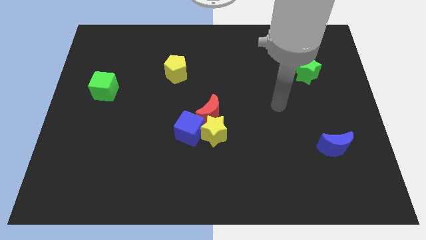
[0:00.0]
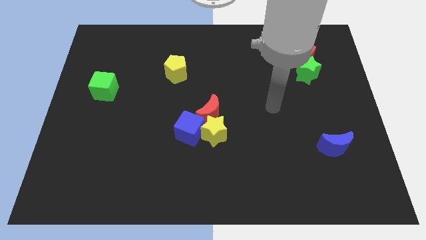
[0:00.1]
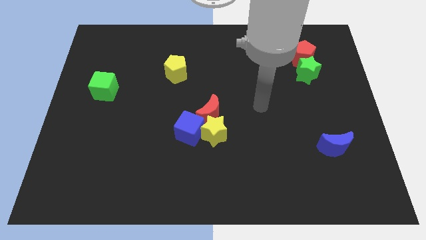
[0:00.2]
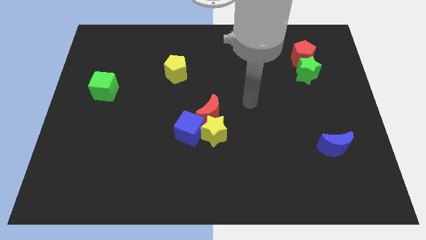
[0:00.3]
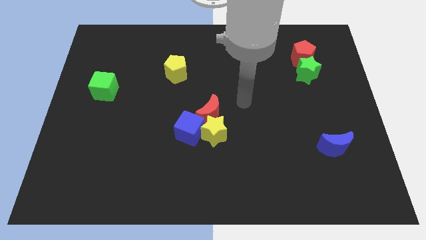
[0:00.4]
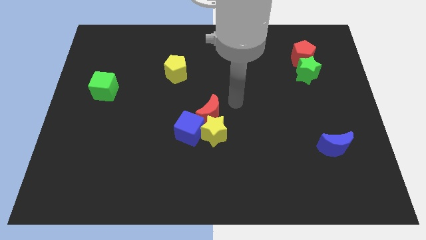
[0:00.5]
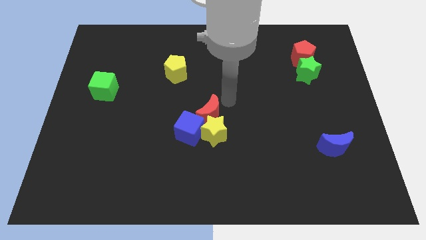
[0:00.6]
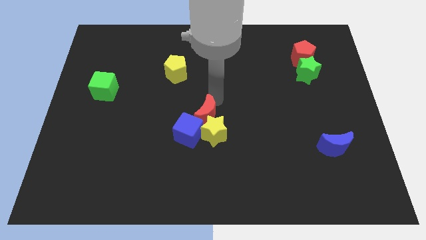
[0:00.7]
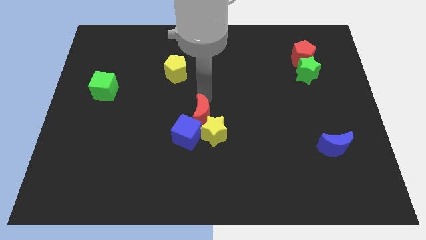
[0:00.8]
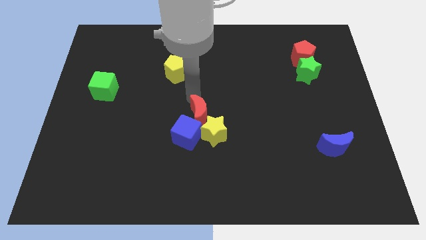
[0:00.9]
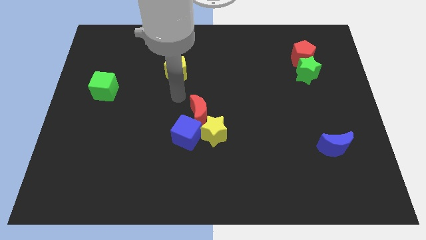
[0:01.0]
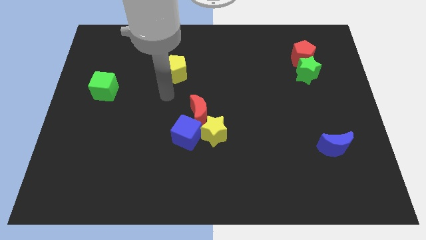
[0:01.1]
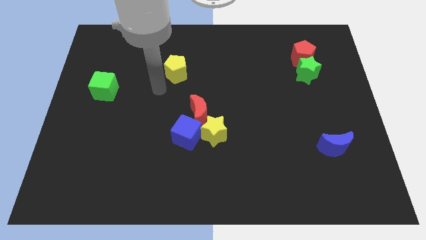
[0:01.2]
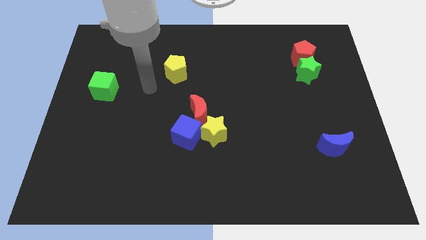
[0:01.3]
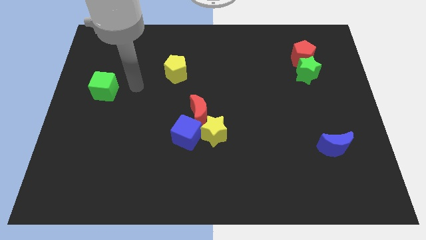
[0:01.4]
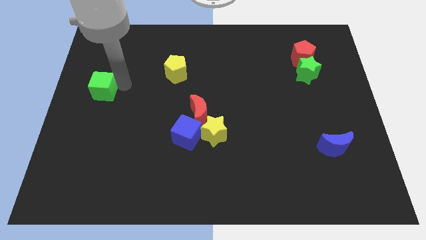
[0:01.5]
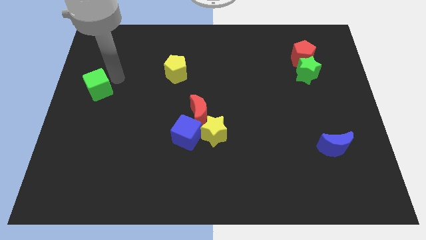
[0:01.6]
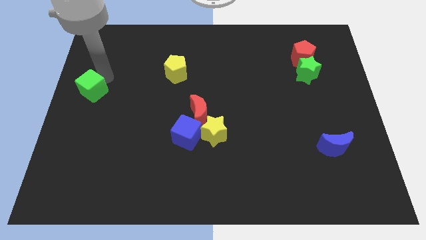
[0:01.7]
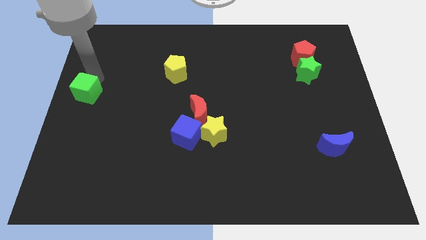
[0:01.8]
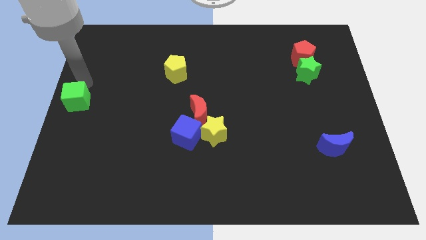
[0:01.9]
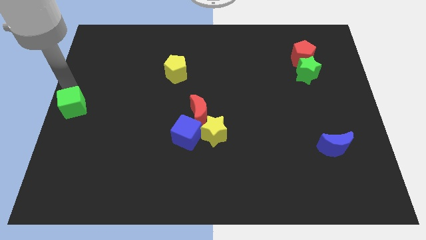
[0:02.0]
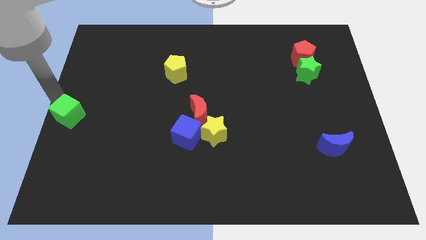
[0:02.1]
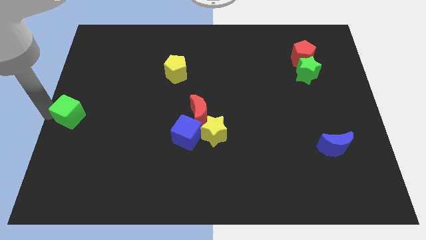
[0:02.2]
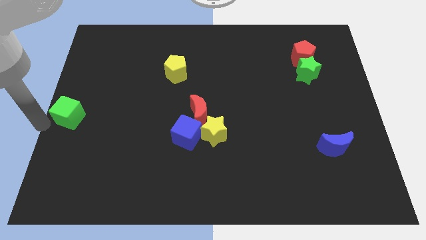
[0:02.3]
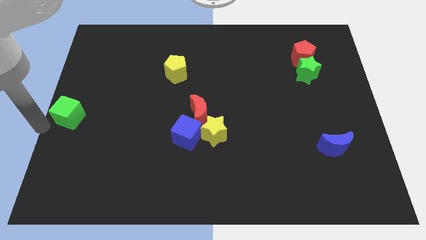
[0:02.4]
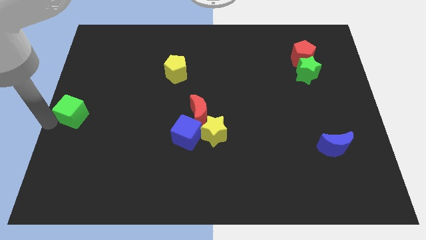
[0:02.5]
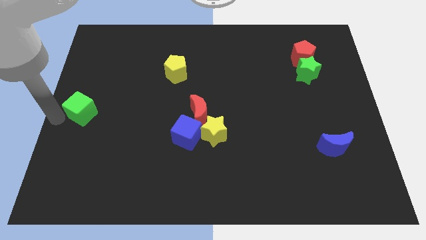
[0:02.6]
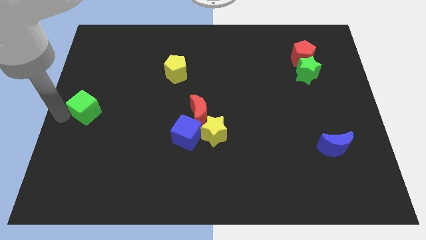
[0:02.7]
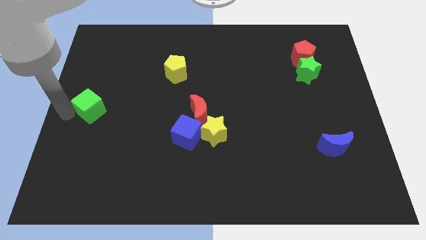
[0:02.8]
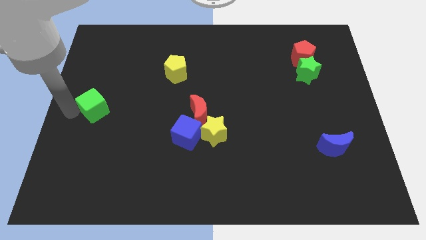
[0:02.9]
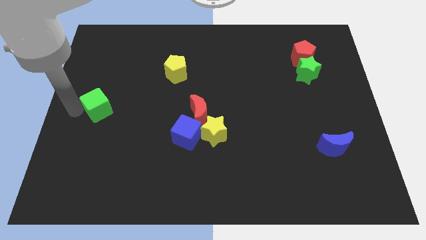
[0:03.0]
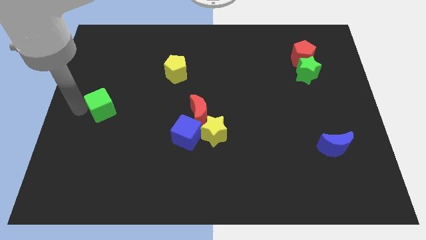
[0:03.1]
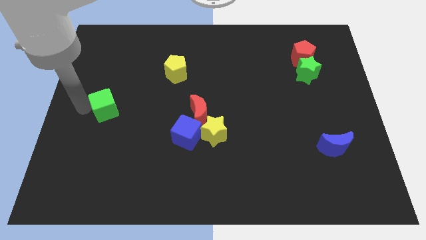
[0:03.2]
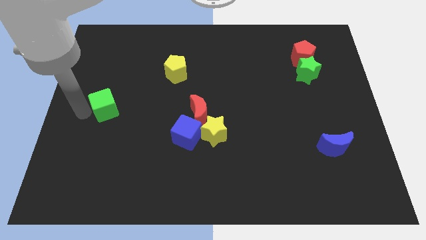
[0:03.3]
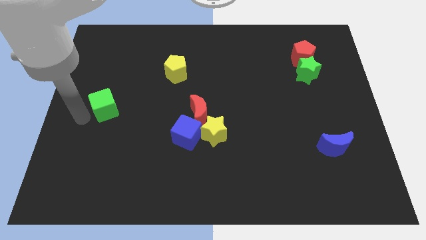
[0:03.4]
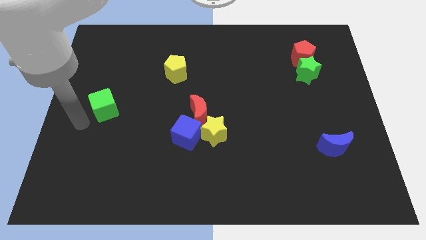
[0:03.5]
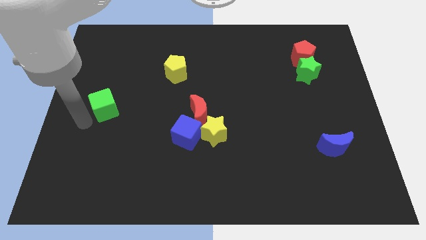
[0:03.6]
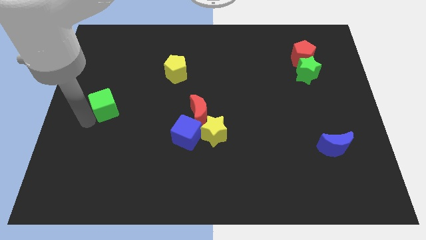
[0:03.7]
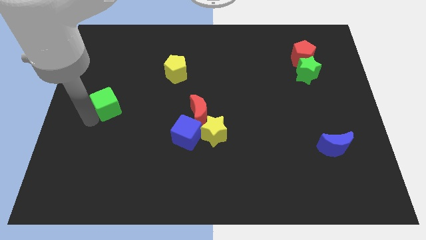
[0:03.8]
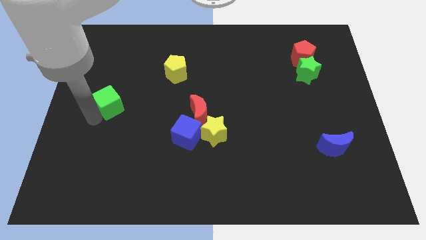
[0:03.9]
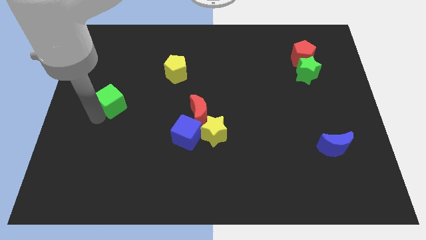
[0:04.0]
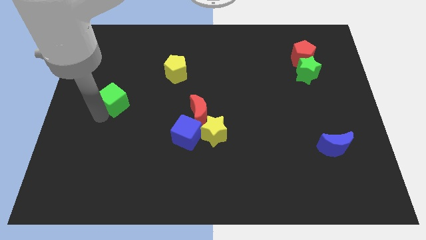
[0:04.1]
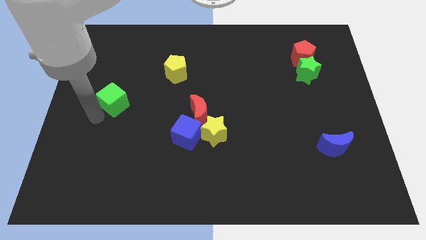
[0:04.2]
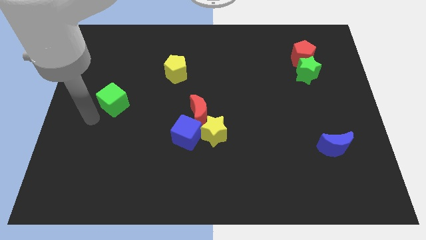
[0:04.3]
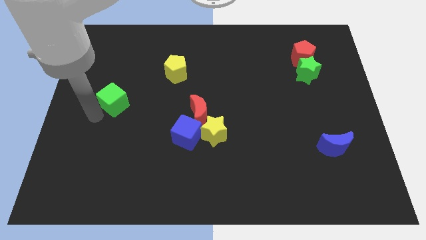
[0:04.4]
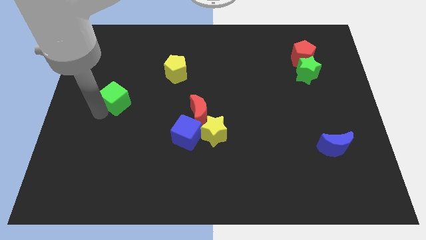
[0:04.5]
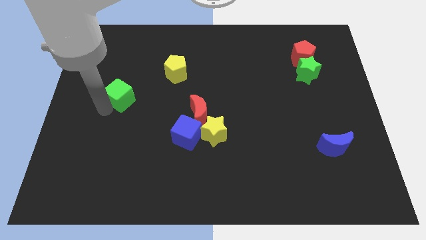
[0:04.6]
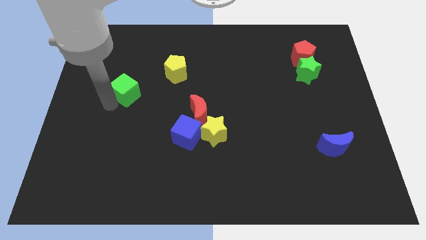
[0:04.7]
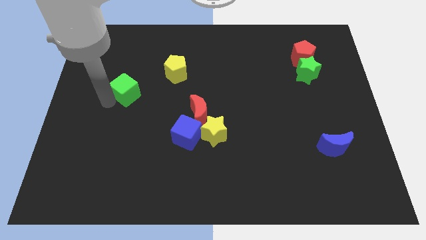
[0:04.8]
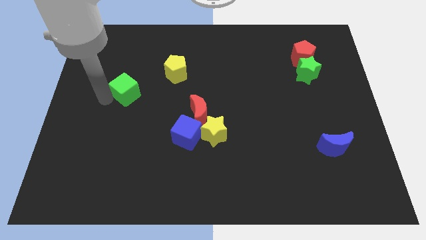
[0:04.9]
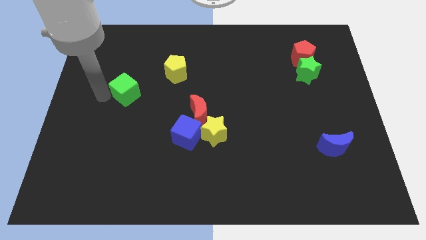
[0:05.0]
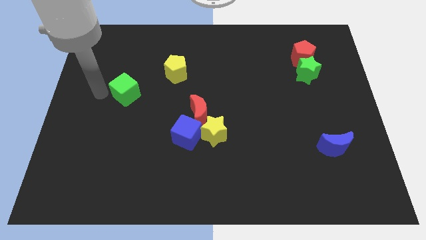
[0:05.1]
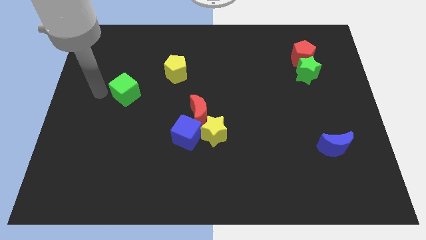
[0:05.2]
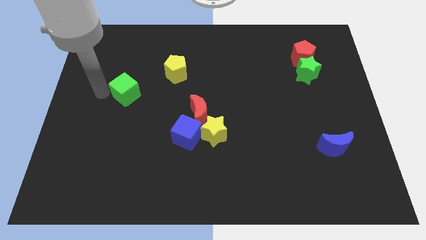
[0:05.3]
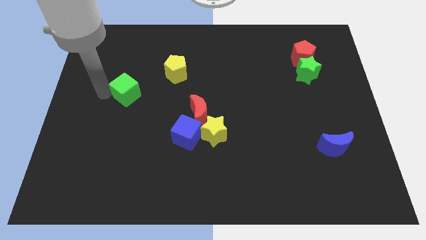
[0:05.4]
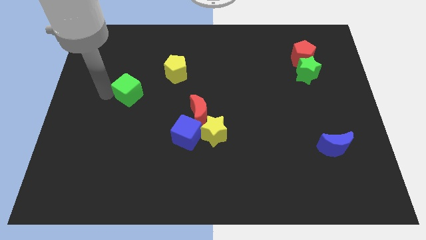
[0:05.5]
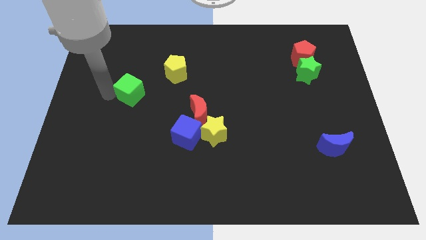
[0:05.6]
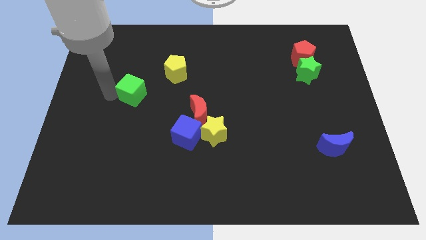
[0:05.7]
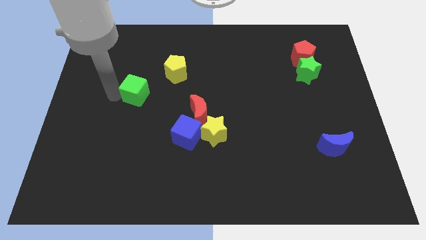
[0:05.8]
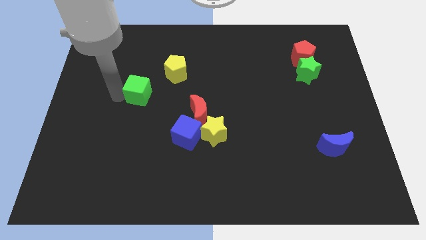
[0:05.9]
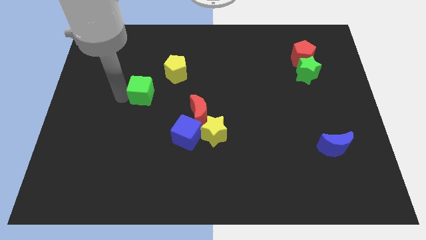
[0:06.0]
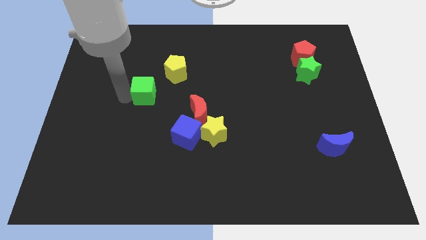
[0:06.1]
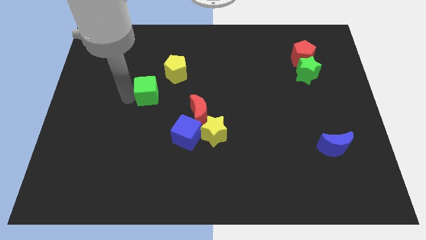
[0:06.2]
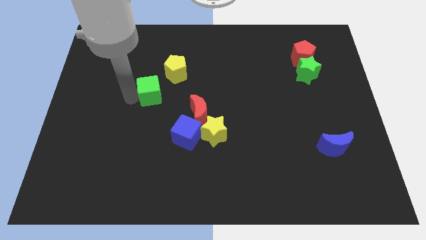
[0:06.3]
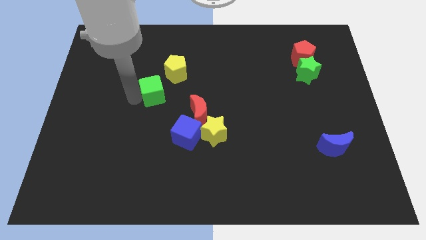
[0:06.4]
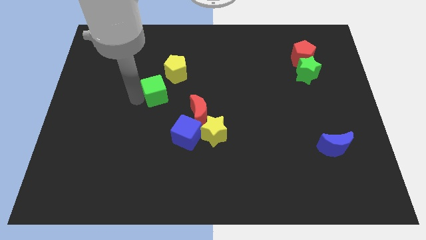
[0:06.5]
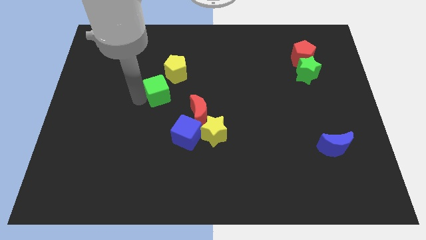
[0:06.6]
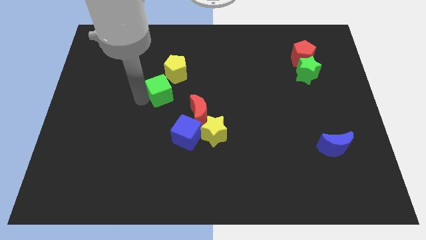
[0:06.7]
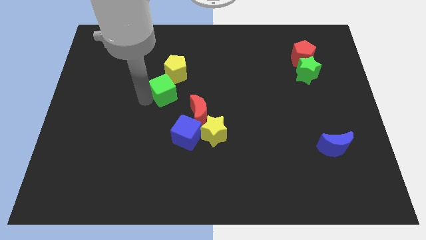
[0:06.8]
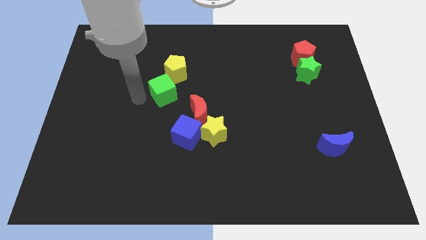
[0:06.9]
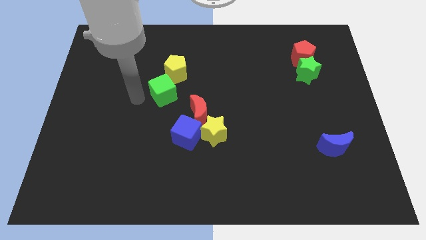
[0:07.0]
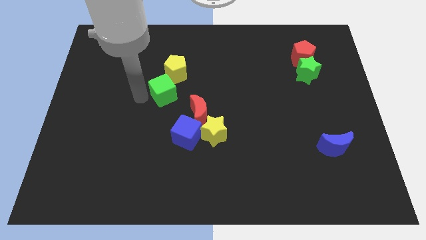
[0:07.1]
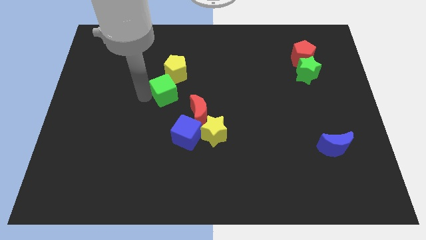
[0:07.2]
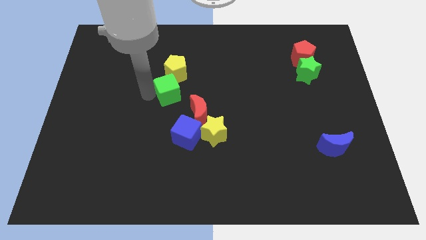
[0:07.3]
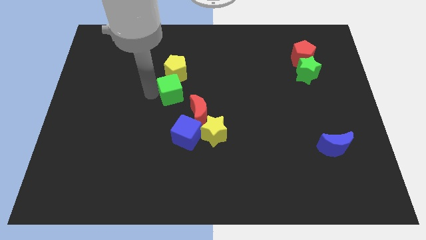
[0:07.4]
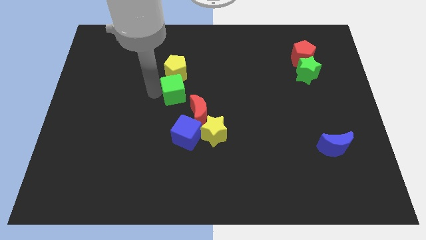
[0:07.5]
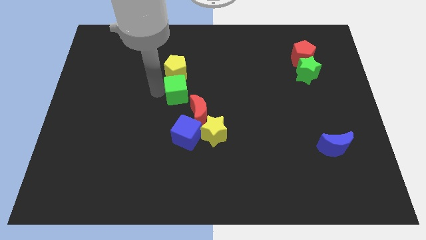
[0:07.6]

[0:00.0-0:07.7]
push the green cube diagonally down and to the right of the yellow pentagon
